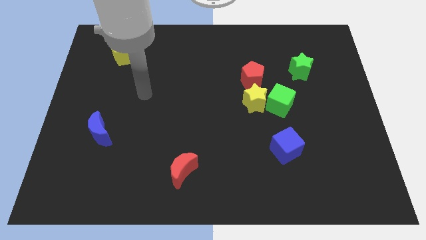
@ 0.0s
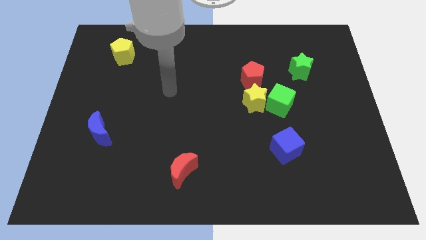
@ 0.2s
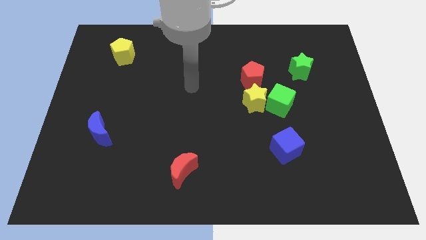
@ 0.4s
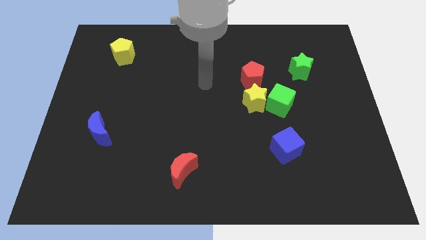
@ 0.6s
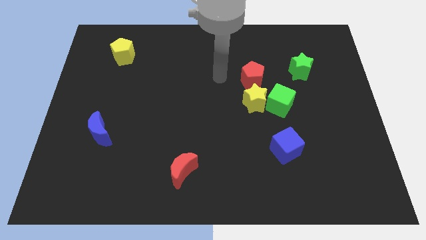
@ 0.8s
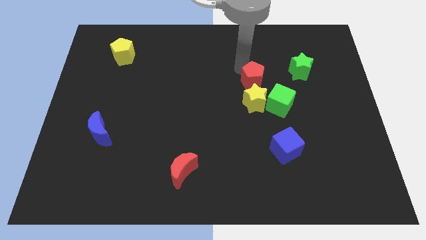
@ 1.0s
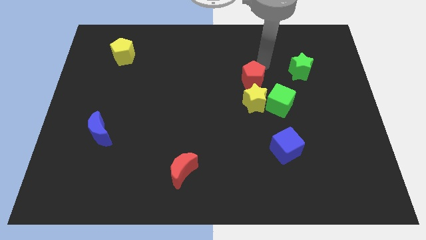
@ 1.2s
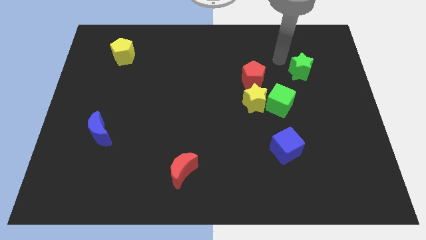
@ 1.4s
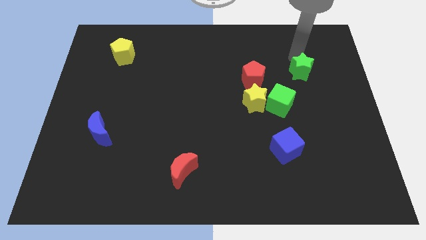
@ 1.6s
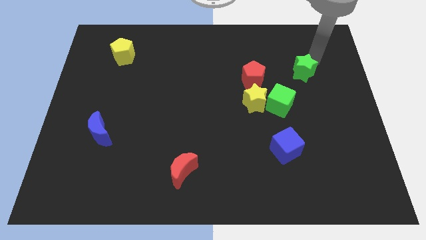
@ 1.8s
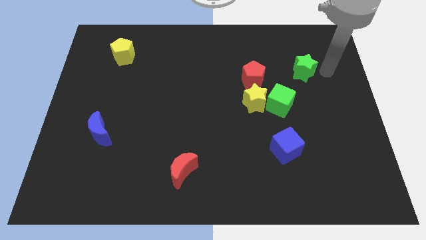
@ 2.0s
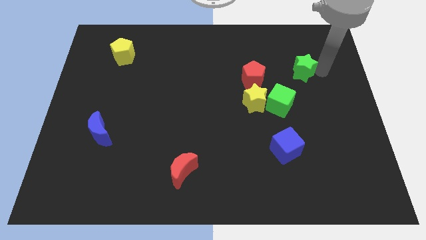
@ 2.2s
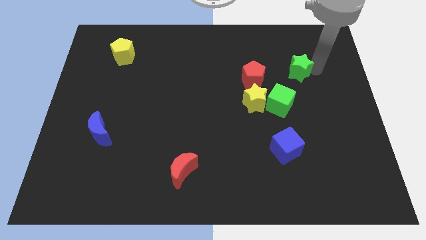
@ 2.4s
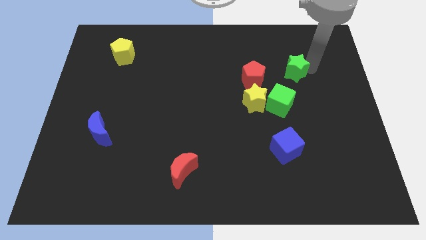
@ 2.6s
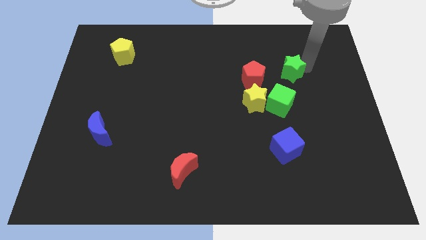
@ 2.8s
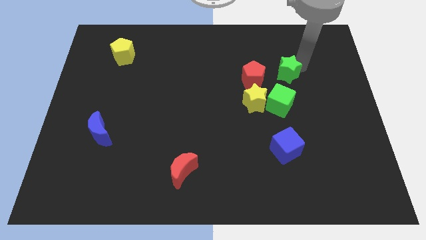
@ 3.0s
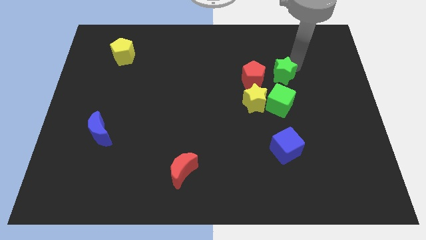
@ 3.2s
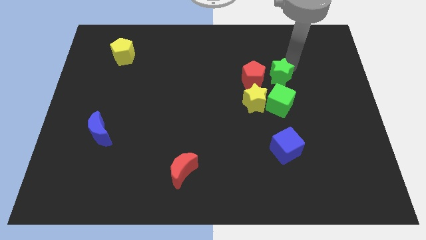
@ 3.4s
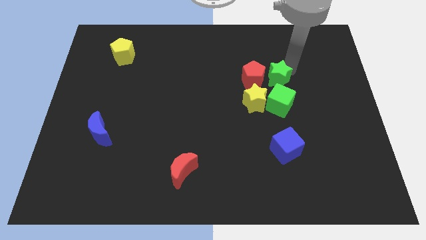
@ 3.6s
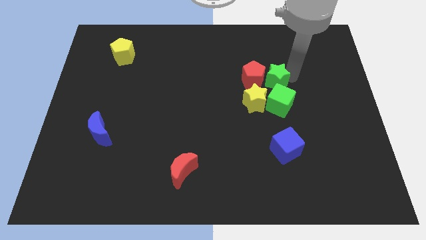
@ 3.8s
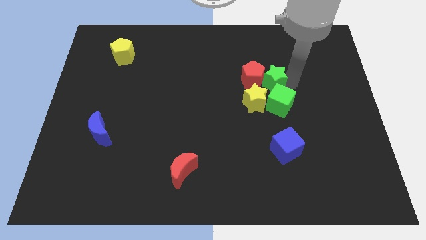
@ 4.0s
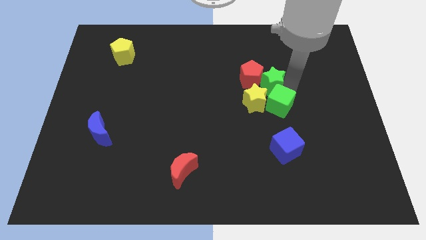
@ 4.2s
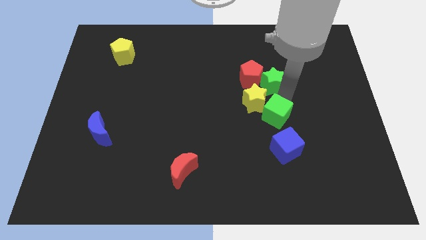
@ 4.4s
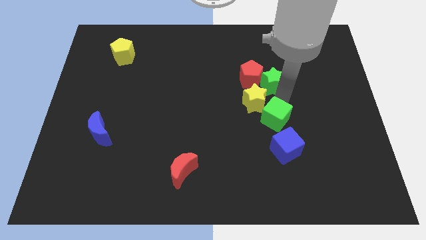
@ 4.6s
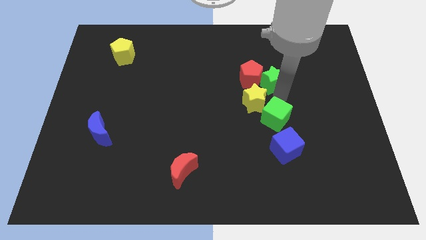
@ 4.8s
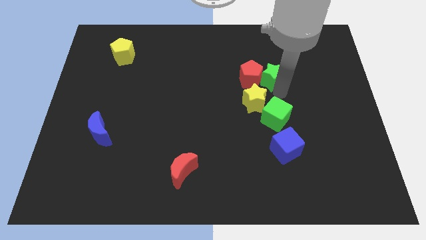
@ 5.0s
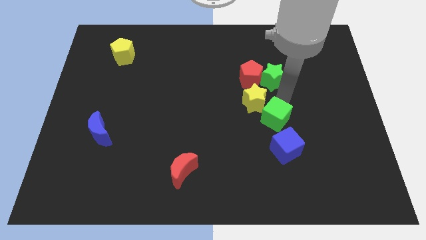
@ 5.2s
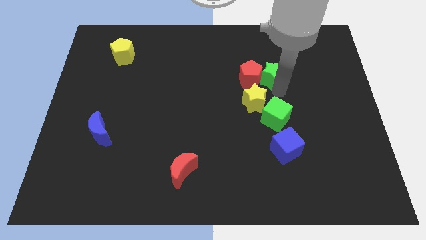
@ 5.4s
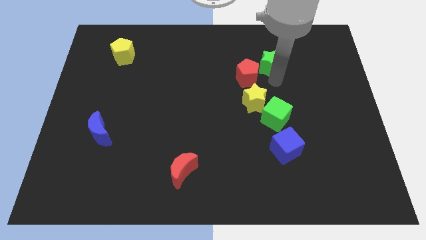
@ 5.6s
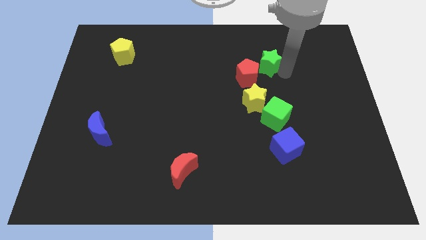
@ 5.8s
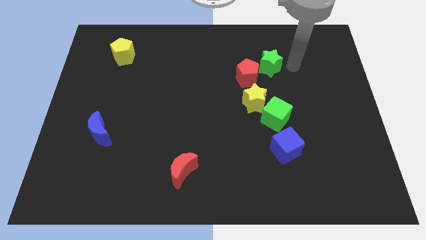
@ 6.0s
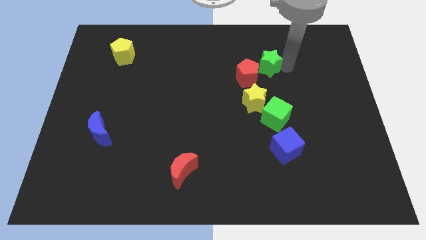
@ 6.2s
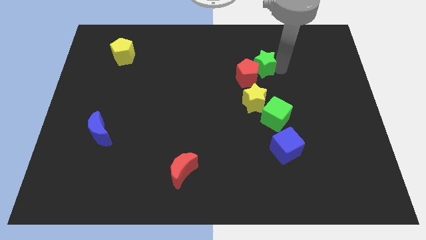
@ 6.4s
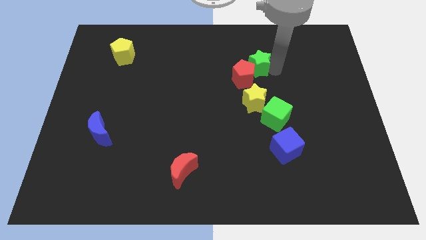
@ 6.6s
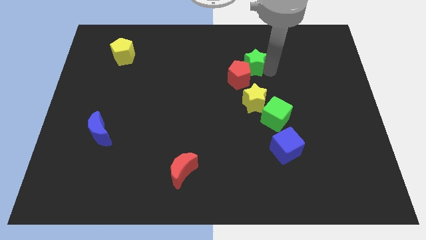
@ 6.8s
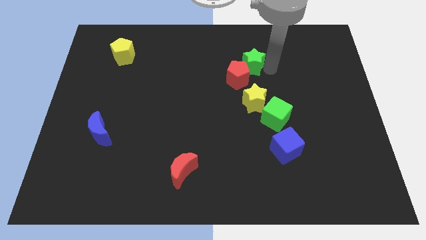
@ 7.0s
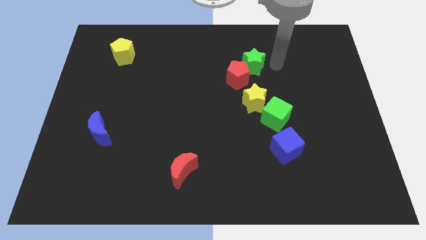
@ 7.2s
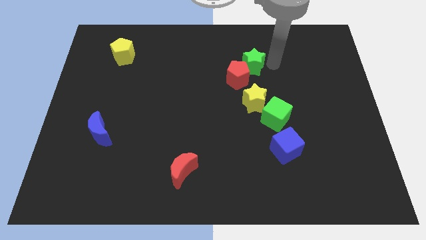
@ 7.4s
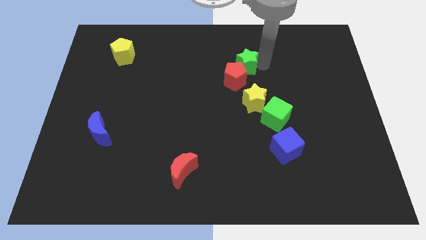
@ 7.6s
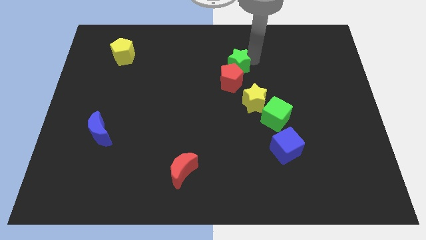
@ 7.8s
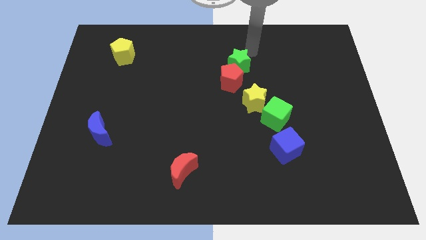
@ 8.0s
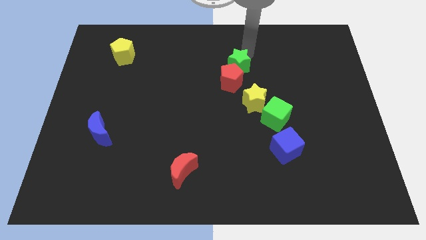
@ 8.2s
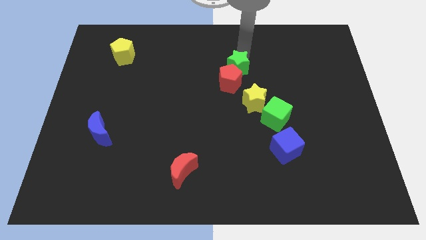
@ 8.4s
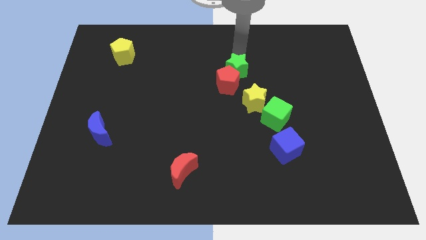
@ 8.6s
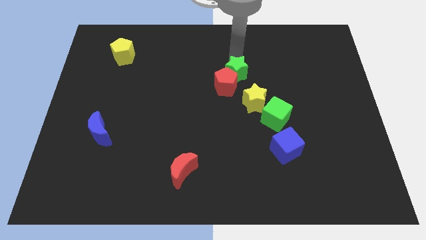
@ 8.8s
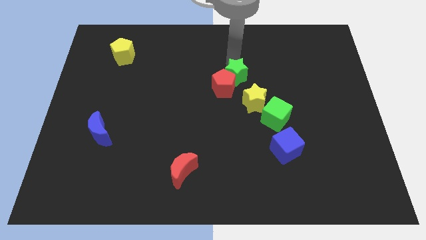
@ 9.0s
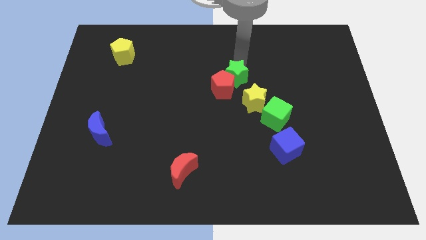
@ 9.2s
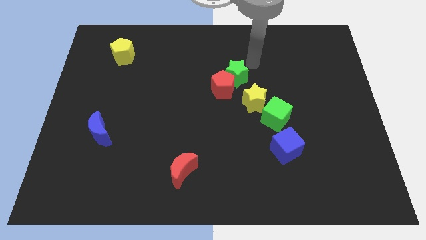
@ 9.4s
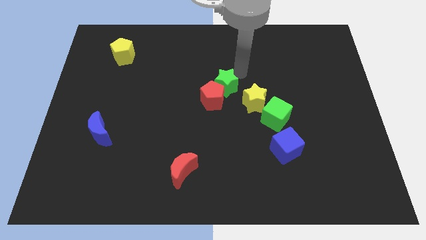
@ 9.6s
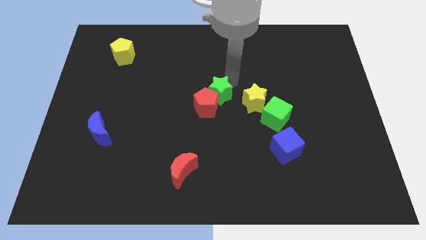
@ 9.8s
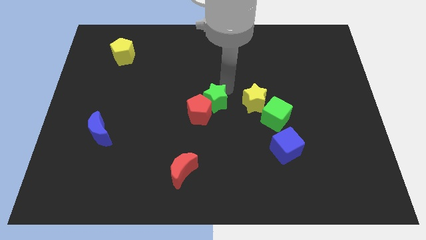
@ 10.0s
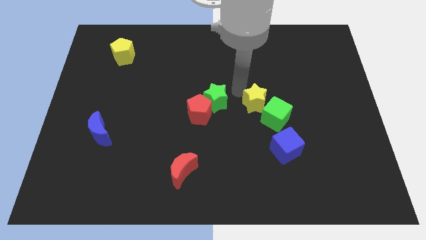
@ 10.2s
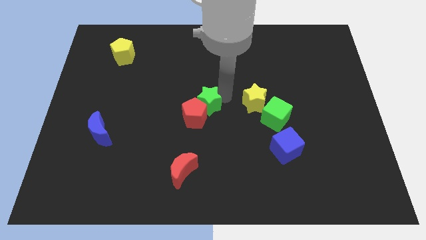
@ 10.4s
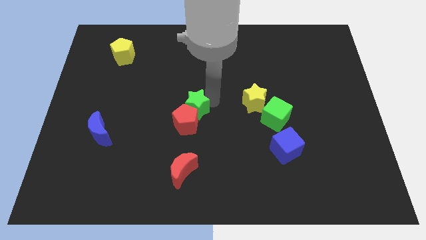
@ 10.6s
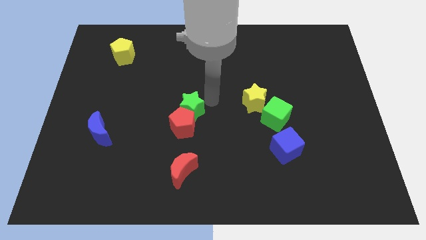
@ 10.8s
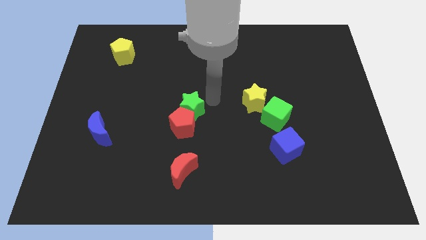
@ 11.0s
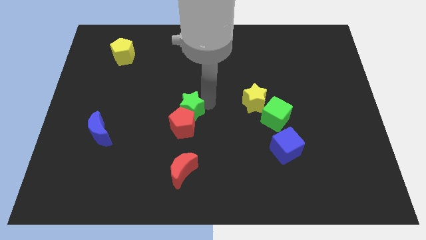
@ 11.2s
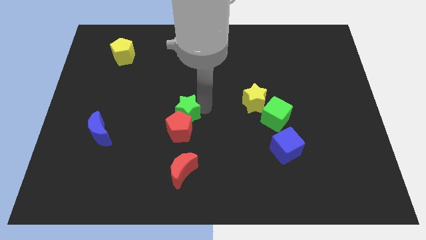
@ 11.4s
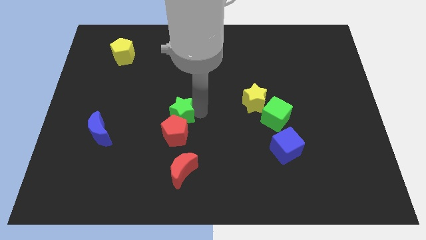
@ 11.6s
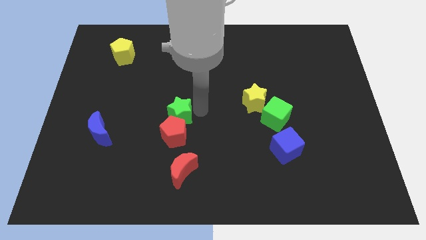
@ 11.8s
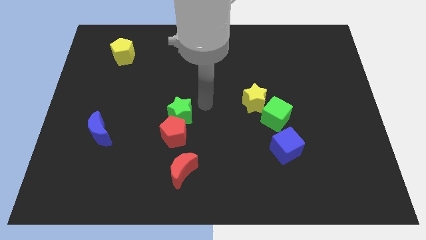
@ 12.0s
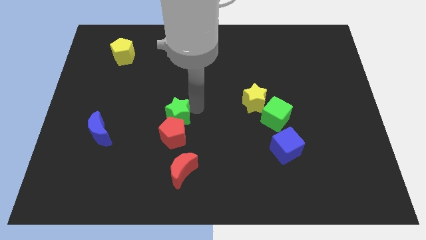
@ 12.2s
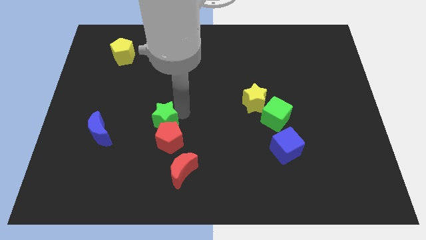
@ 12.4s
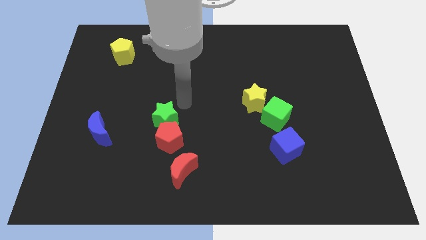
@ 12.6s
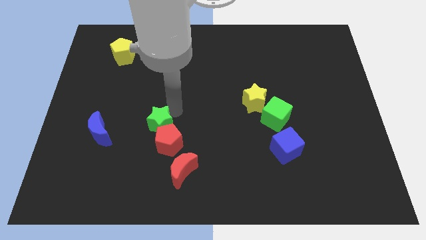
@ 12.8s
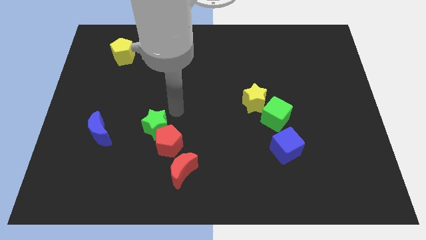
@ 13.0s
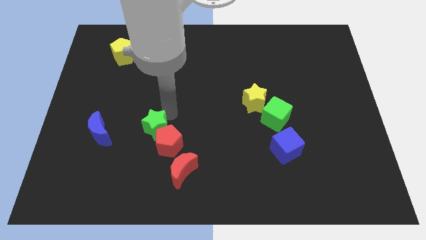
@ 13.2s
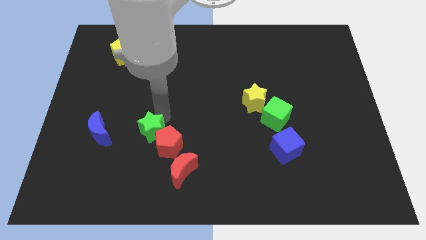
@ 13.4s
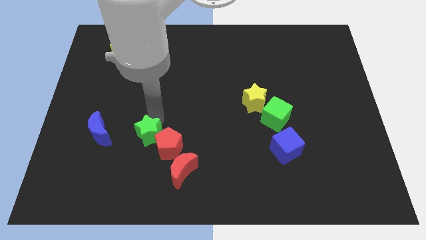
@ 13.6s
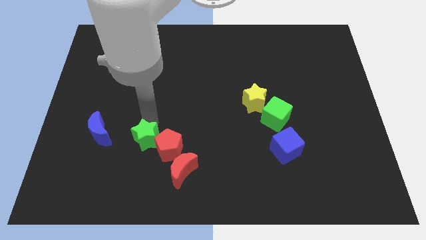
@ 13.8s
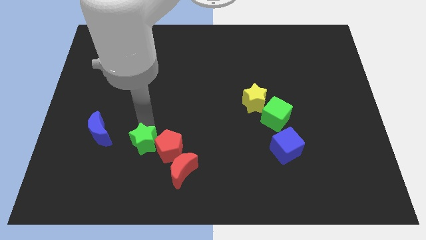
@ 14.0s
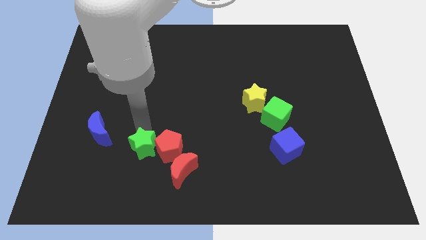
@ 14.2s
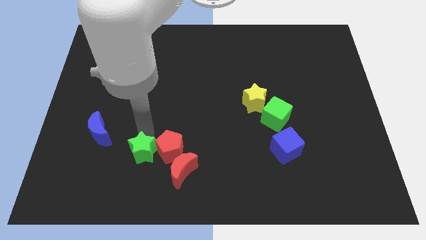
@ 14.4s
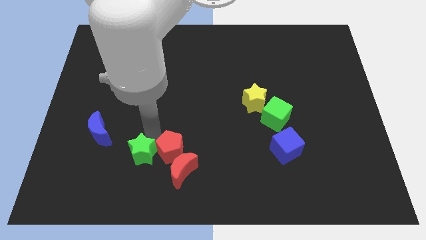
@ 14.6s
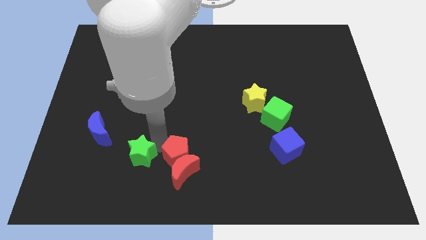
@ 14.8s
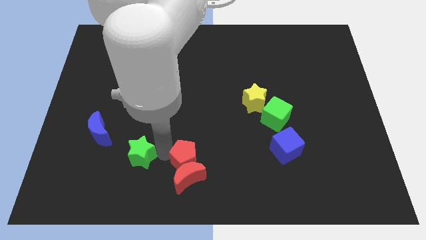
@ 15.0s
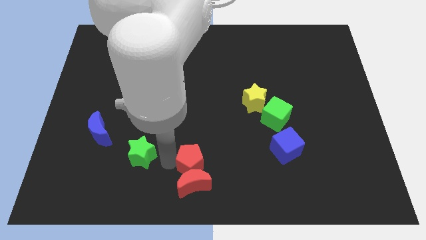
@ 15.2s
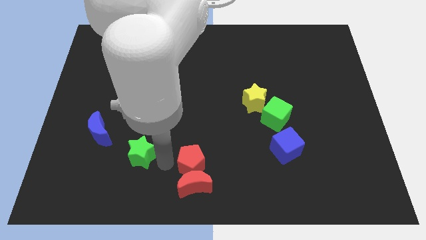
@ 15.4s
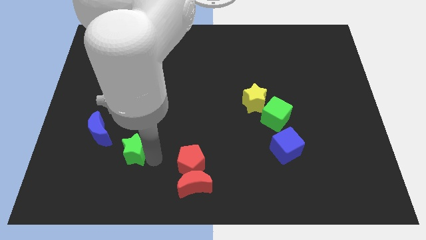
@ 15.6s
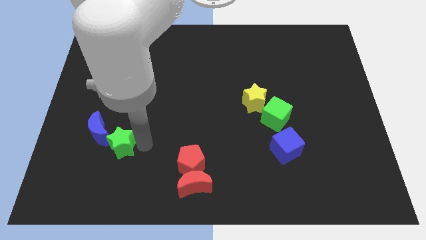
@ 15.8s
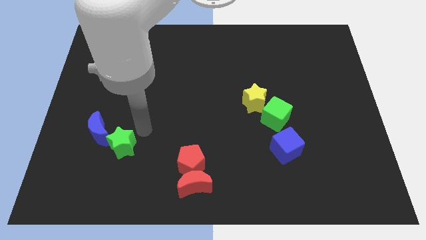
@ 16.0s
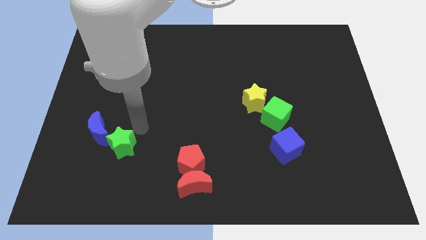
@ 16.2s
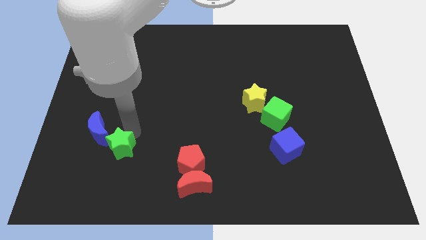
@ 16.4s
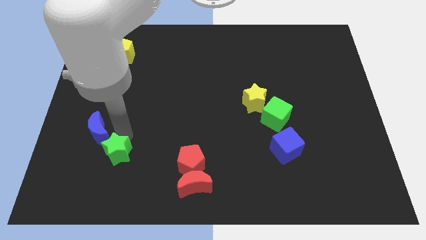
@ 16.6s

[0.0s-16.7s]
push the green star to the bottom side of the blue moon
